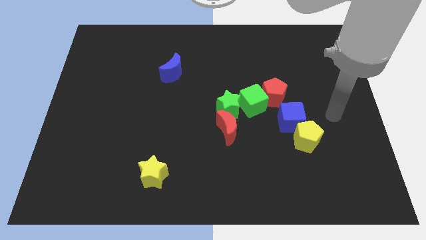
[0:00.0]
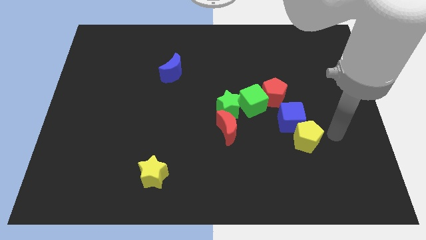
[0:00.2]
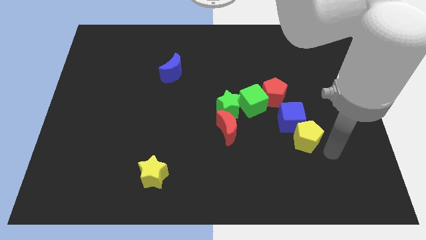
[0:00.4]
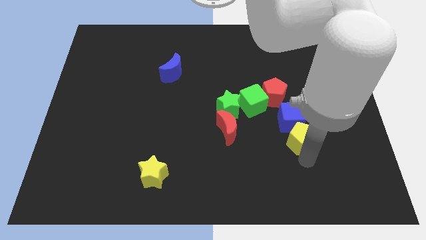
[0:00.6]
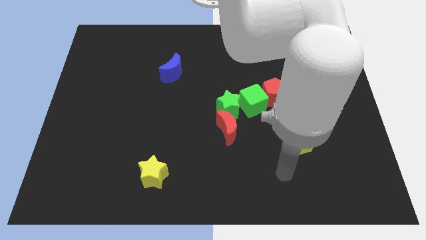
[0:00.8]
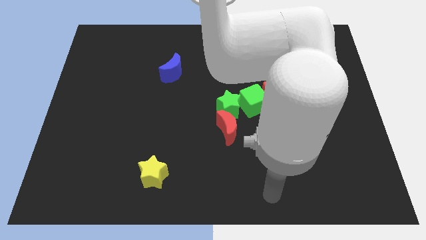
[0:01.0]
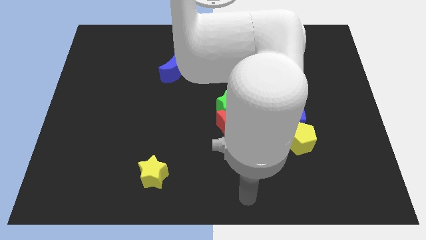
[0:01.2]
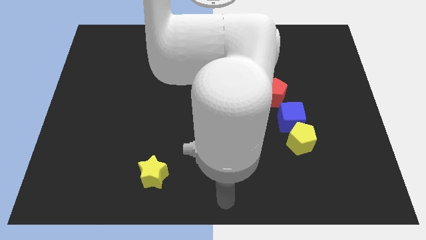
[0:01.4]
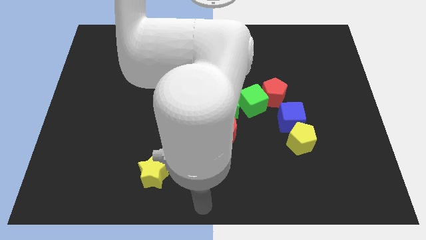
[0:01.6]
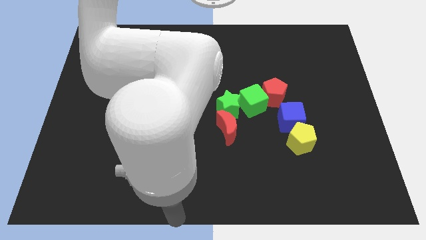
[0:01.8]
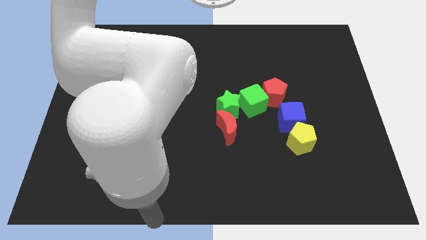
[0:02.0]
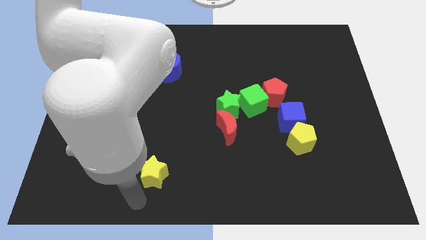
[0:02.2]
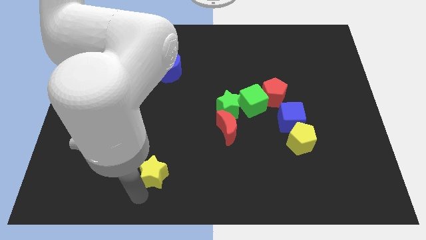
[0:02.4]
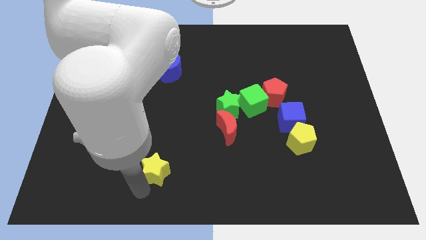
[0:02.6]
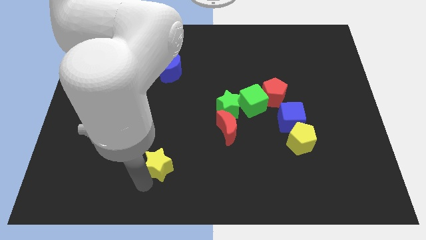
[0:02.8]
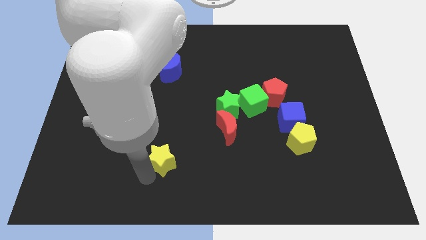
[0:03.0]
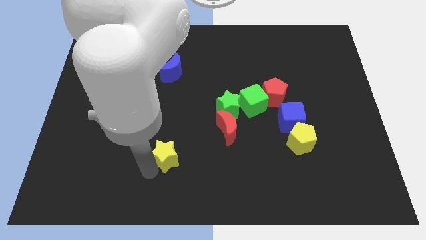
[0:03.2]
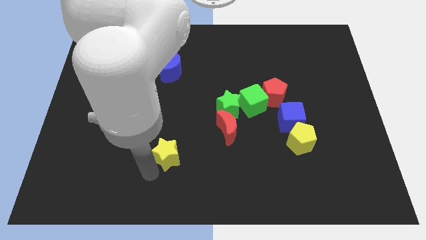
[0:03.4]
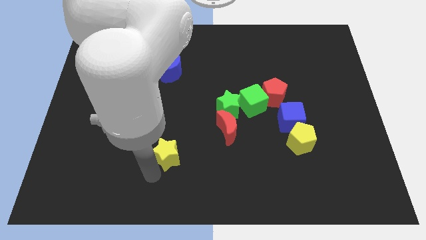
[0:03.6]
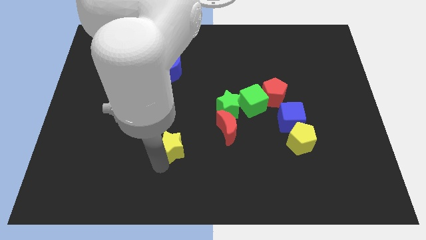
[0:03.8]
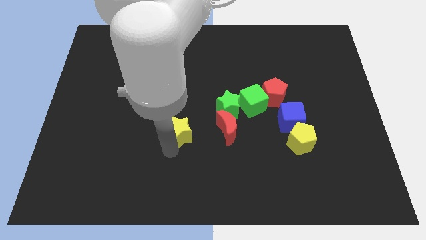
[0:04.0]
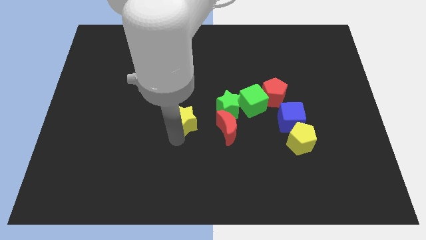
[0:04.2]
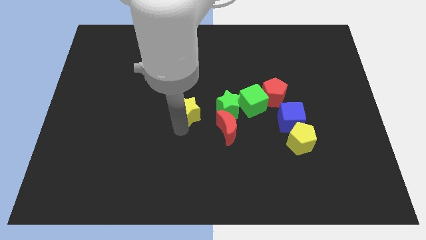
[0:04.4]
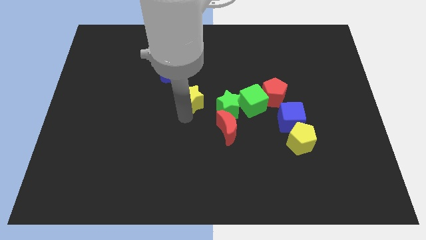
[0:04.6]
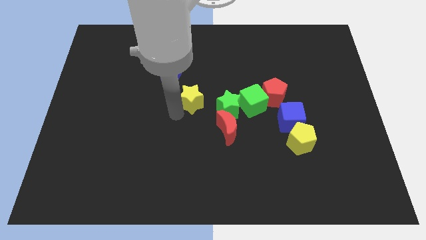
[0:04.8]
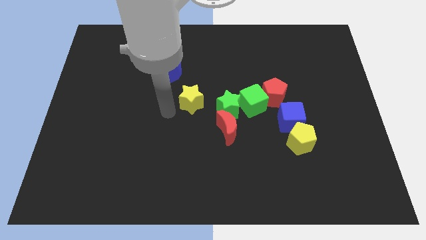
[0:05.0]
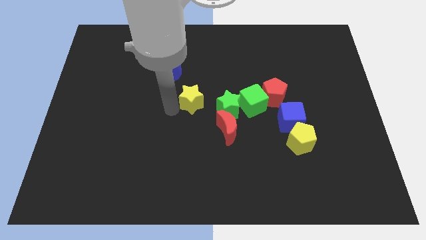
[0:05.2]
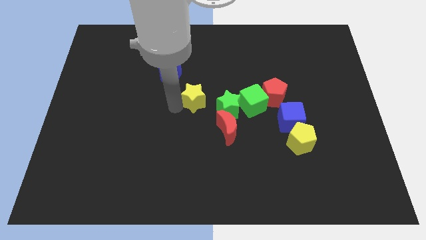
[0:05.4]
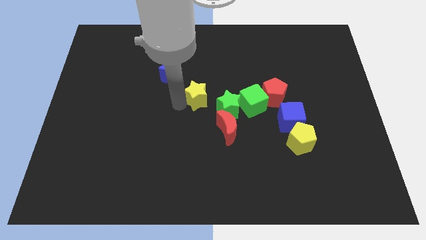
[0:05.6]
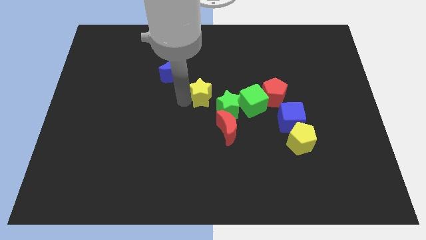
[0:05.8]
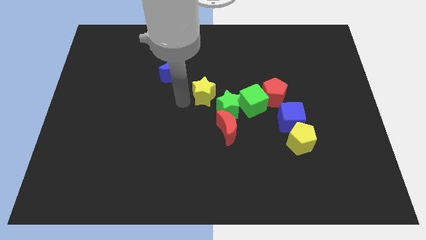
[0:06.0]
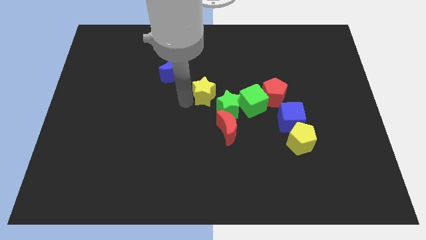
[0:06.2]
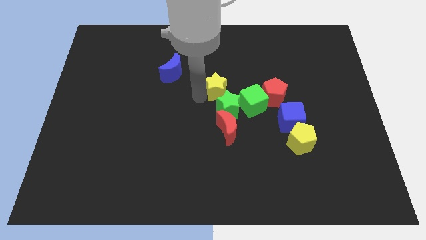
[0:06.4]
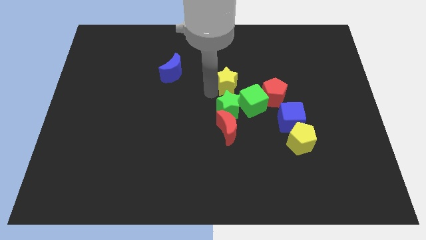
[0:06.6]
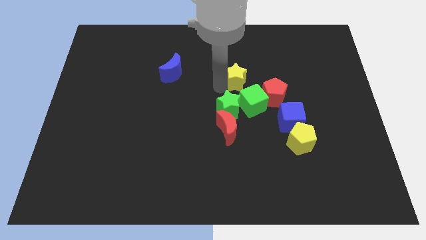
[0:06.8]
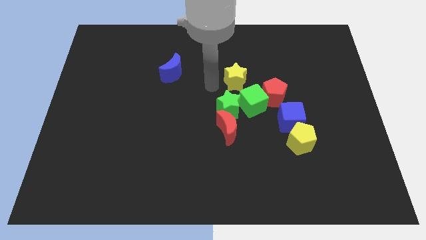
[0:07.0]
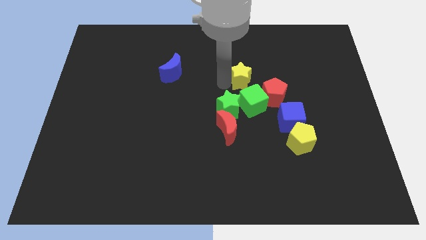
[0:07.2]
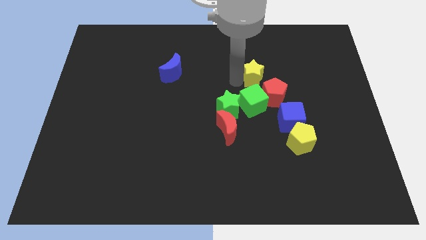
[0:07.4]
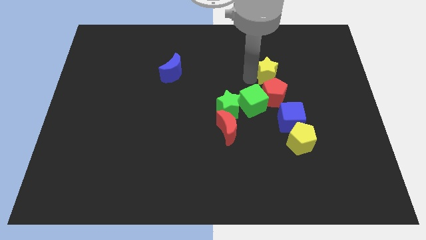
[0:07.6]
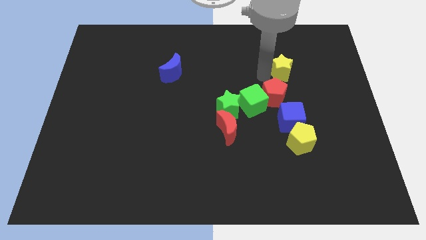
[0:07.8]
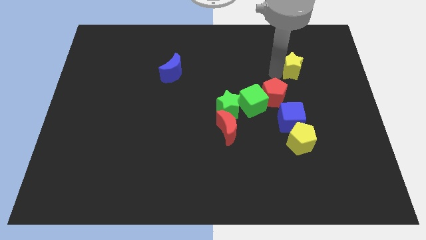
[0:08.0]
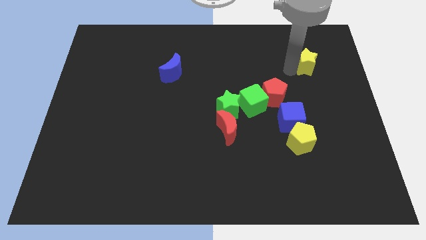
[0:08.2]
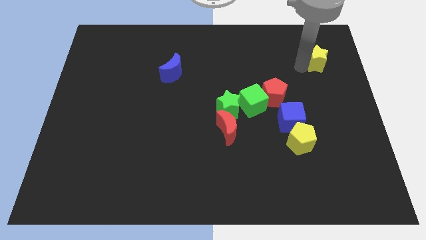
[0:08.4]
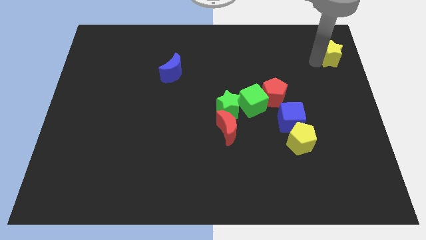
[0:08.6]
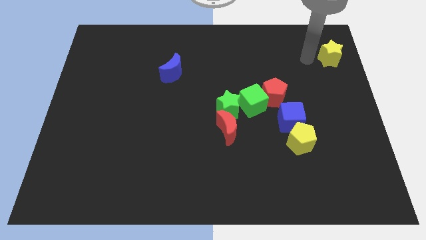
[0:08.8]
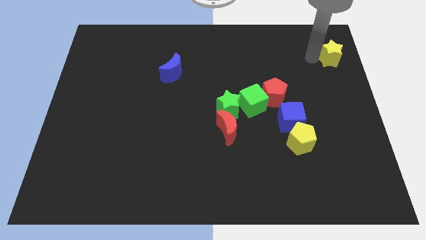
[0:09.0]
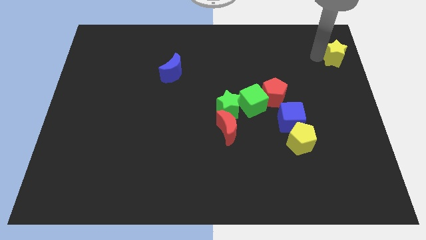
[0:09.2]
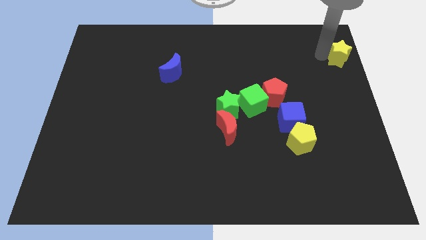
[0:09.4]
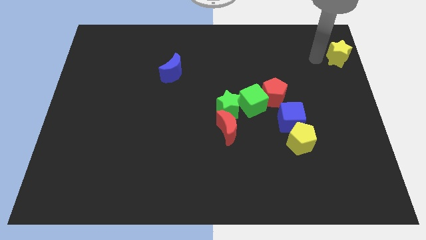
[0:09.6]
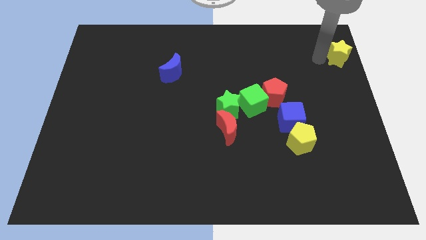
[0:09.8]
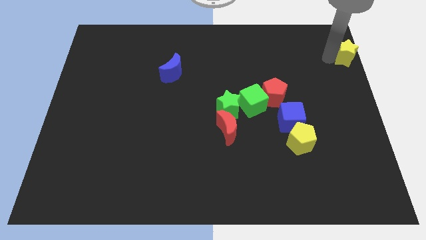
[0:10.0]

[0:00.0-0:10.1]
put the yellow star to the top right corner

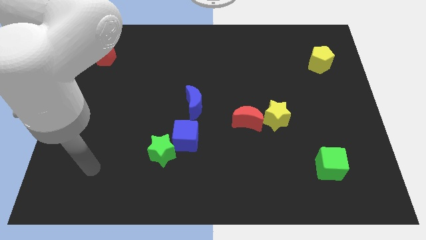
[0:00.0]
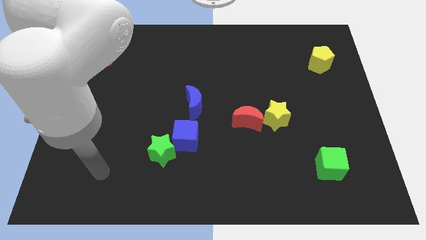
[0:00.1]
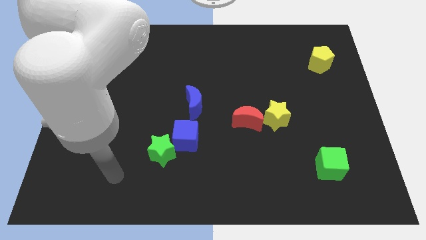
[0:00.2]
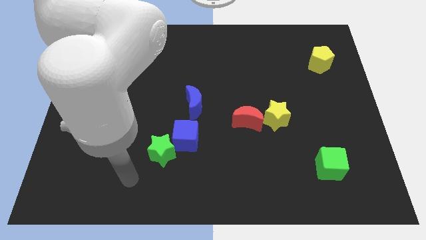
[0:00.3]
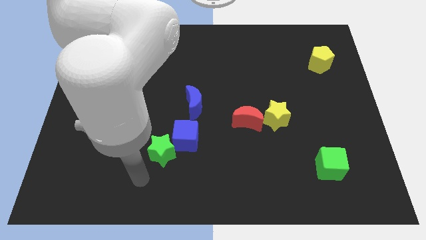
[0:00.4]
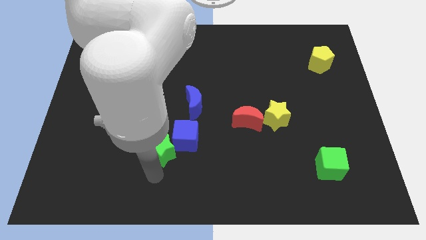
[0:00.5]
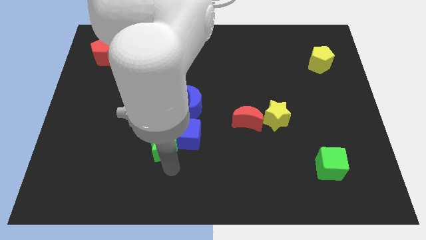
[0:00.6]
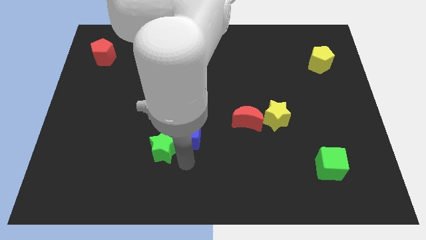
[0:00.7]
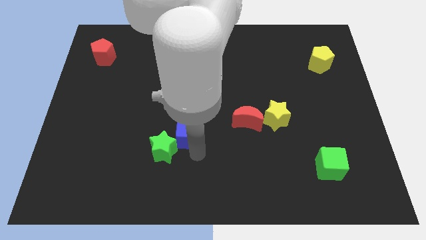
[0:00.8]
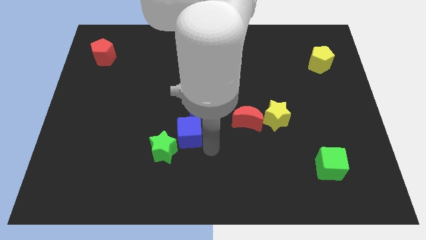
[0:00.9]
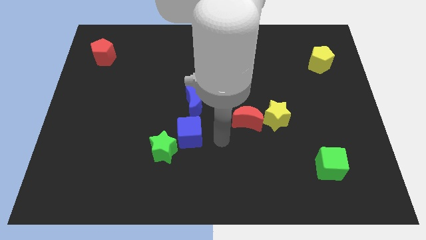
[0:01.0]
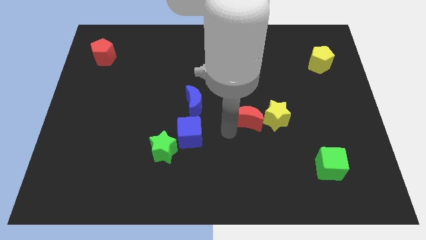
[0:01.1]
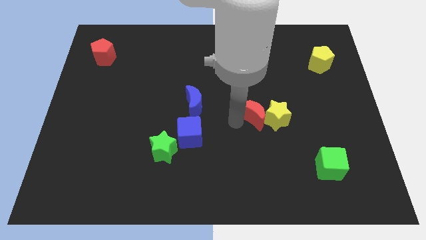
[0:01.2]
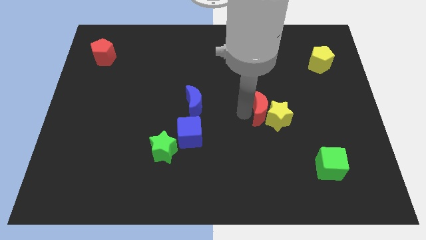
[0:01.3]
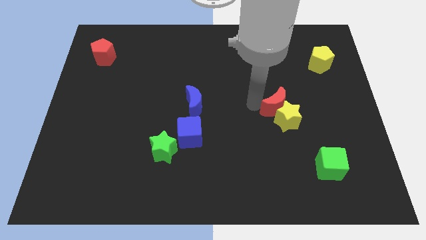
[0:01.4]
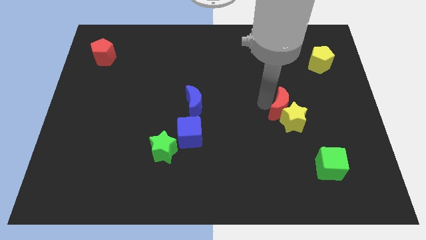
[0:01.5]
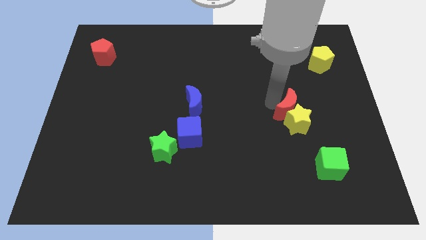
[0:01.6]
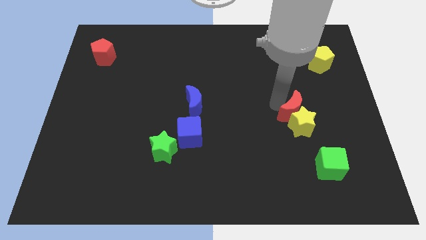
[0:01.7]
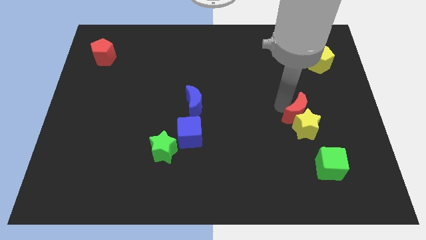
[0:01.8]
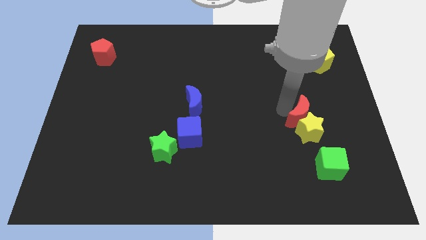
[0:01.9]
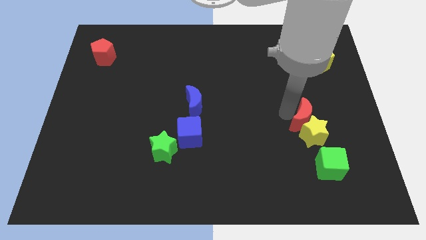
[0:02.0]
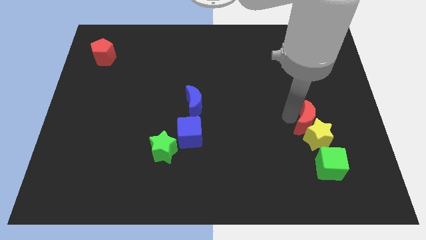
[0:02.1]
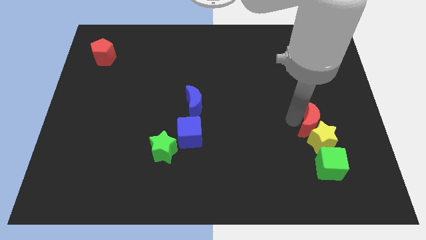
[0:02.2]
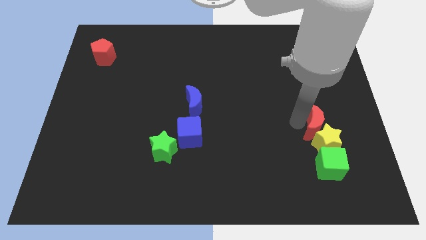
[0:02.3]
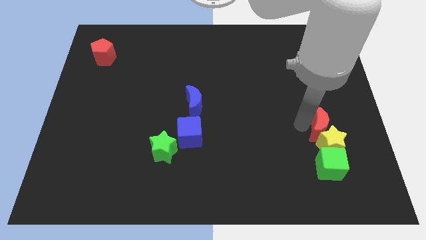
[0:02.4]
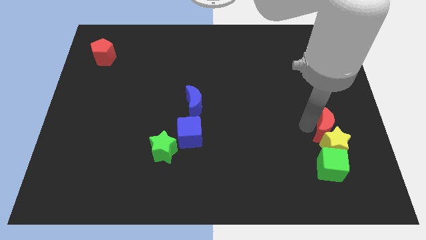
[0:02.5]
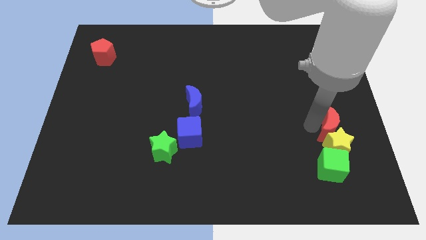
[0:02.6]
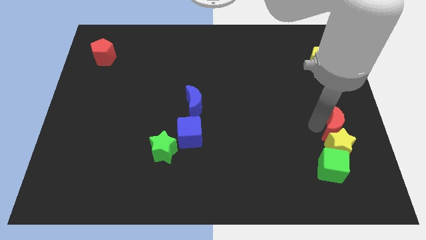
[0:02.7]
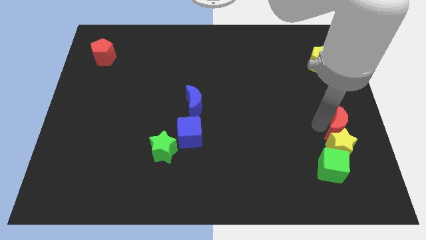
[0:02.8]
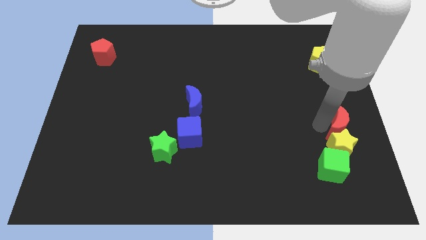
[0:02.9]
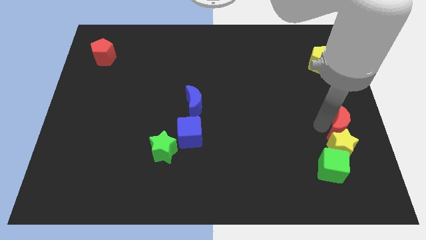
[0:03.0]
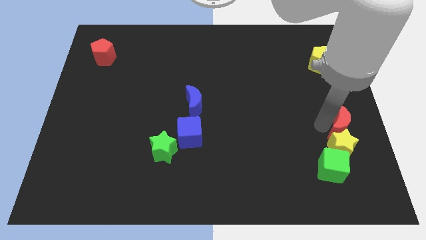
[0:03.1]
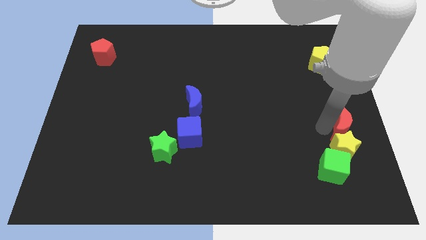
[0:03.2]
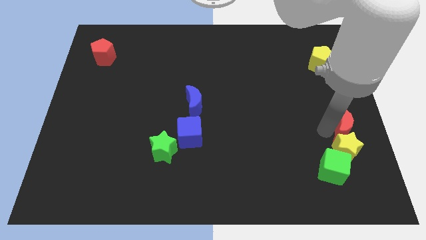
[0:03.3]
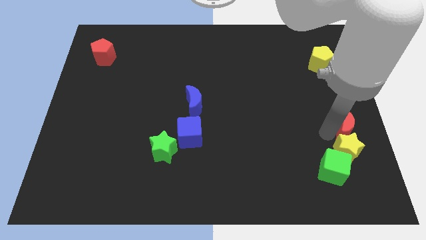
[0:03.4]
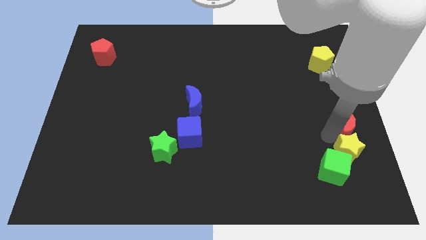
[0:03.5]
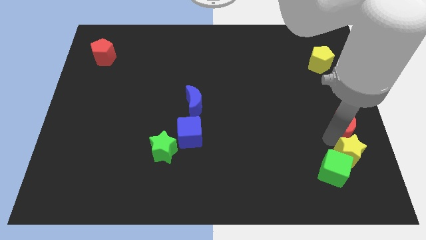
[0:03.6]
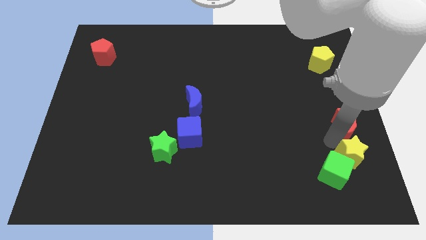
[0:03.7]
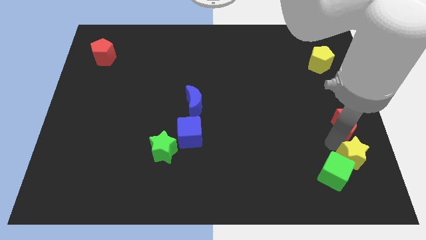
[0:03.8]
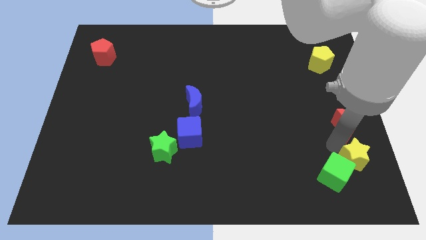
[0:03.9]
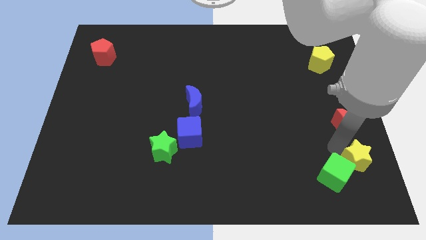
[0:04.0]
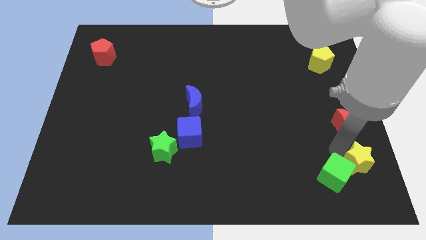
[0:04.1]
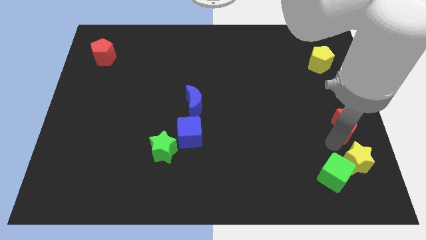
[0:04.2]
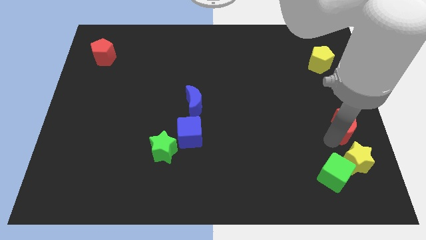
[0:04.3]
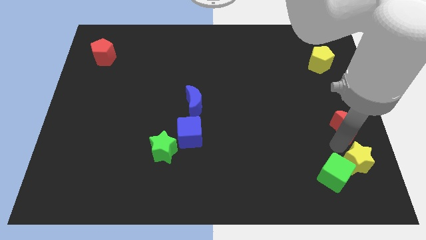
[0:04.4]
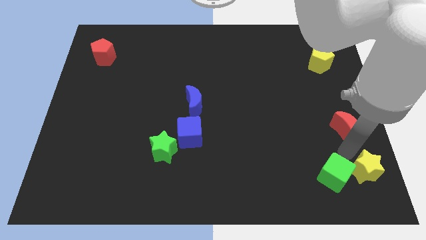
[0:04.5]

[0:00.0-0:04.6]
push the yellow star to the lower right corner
